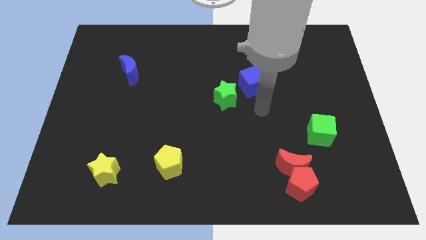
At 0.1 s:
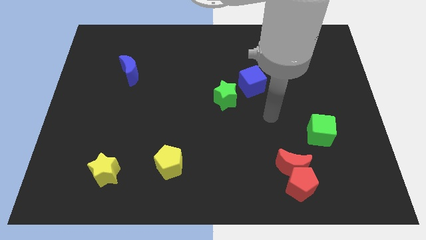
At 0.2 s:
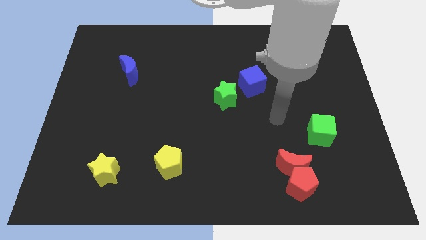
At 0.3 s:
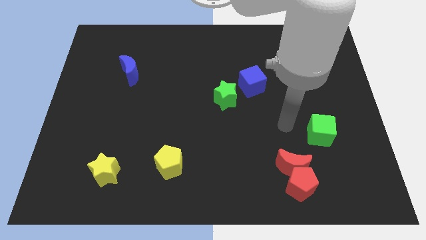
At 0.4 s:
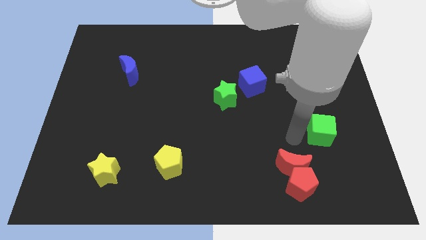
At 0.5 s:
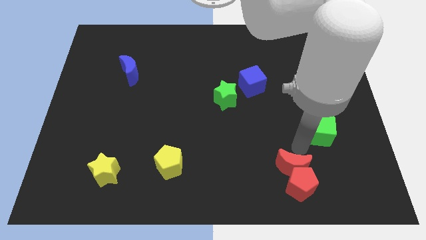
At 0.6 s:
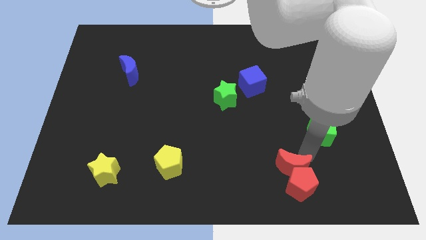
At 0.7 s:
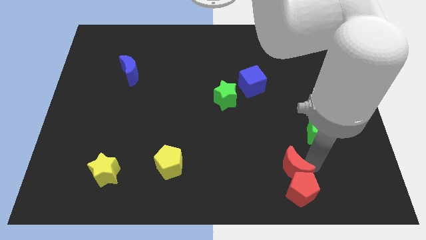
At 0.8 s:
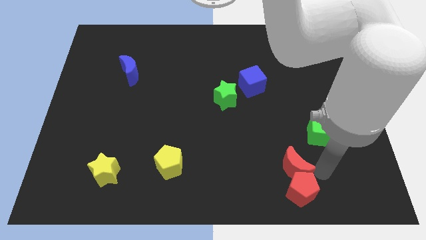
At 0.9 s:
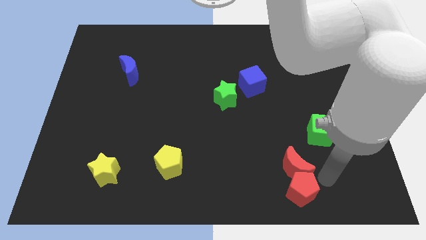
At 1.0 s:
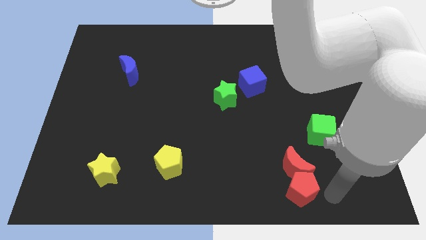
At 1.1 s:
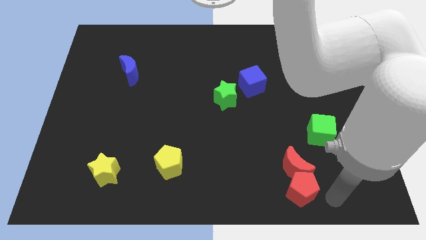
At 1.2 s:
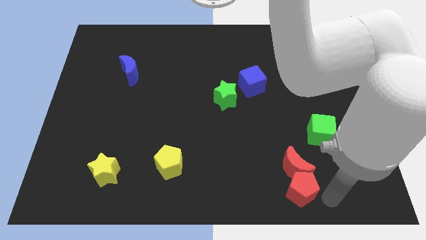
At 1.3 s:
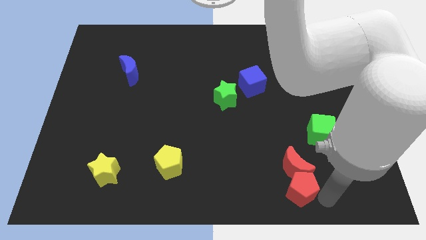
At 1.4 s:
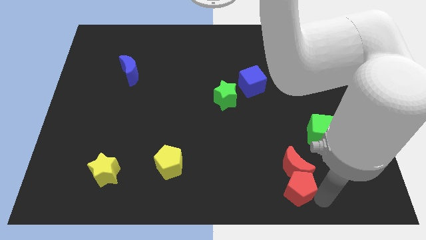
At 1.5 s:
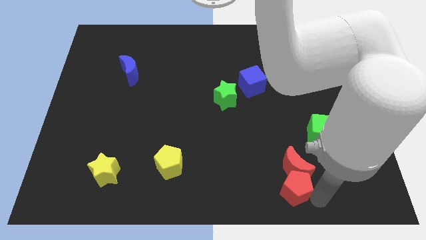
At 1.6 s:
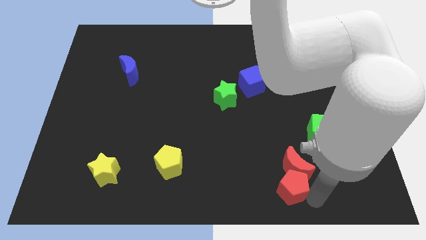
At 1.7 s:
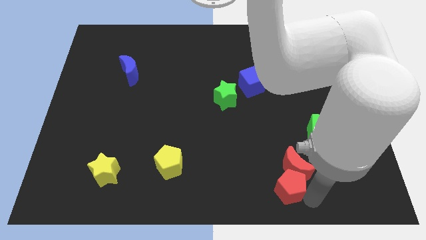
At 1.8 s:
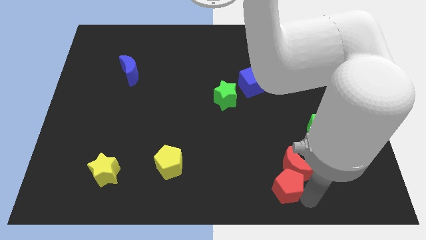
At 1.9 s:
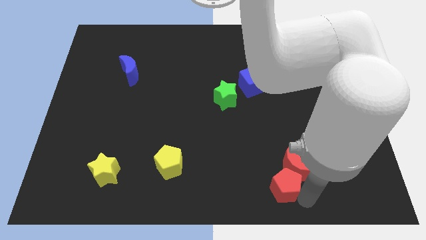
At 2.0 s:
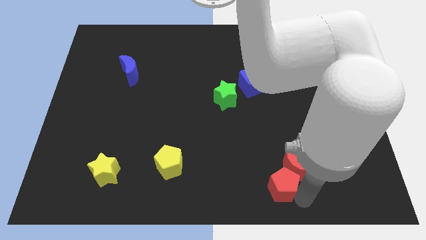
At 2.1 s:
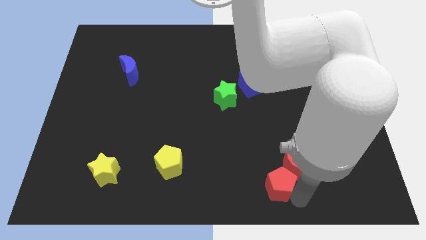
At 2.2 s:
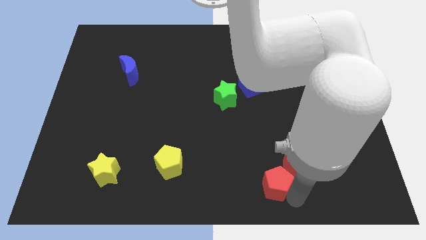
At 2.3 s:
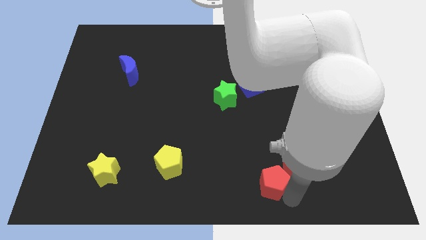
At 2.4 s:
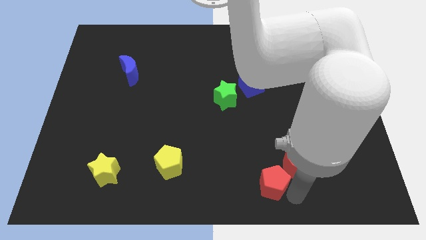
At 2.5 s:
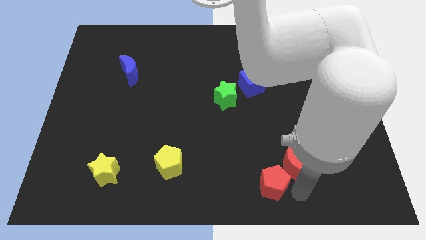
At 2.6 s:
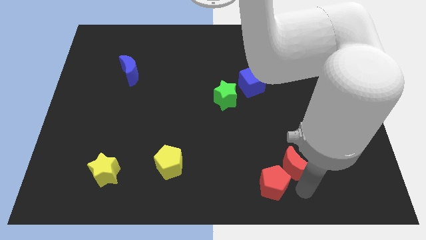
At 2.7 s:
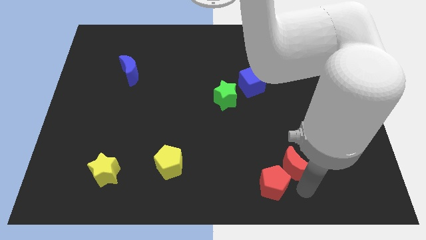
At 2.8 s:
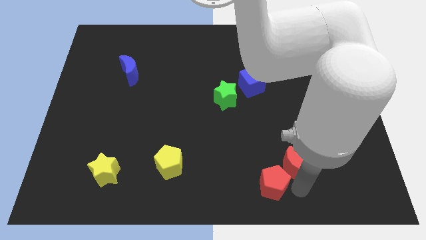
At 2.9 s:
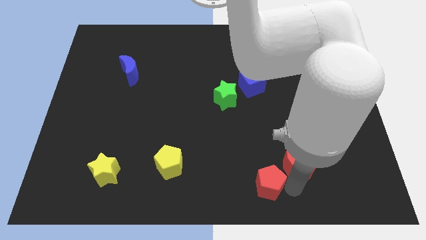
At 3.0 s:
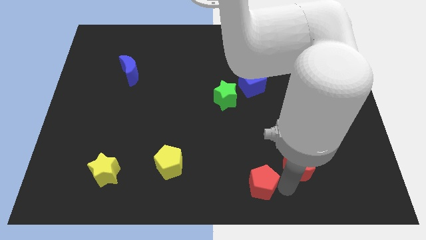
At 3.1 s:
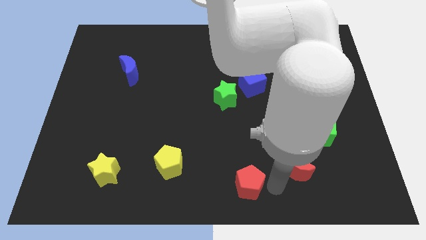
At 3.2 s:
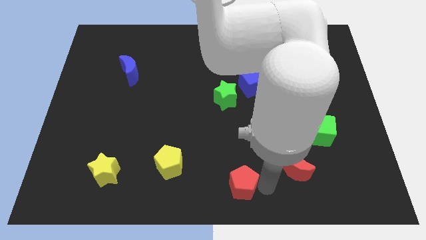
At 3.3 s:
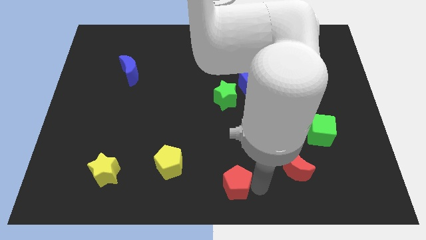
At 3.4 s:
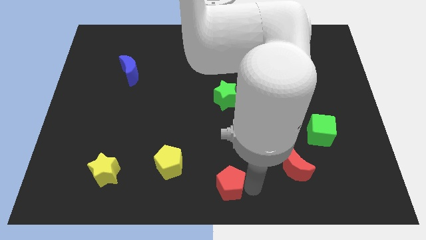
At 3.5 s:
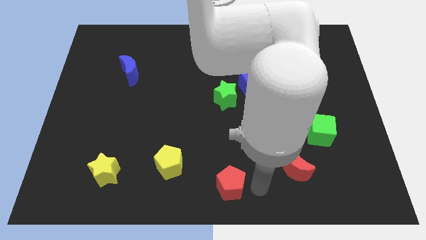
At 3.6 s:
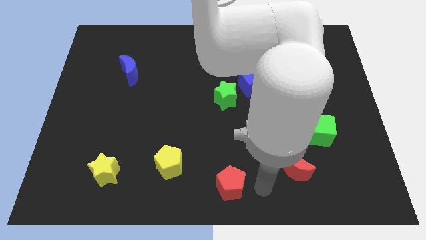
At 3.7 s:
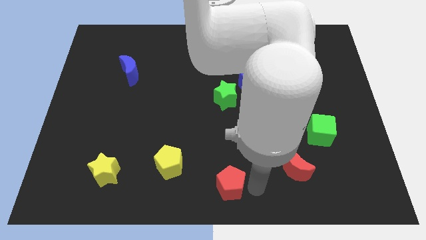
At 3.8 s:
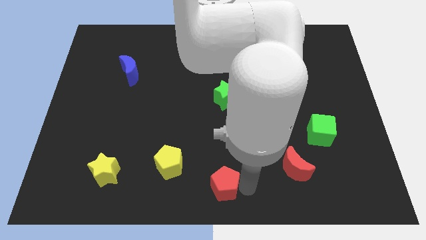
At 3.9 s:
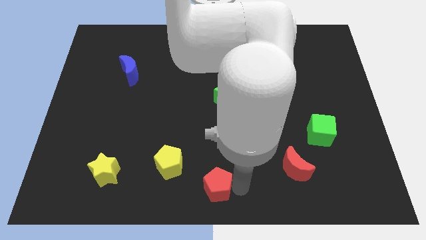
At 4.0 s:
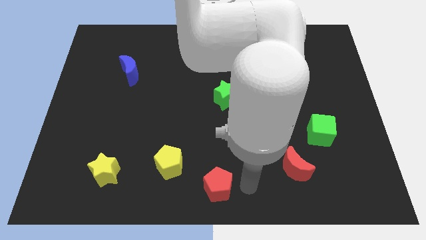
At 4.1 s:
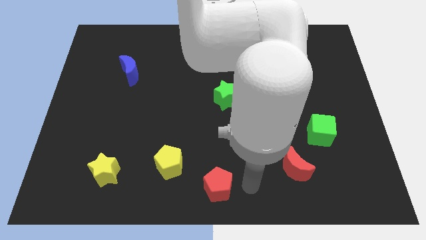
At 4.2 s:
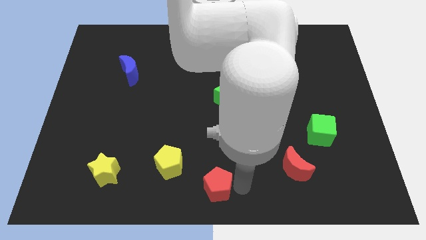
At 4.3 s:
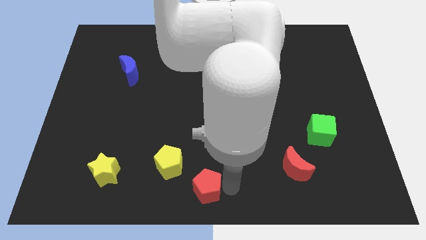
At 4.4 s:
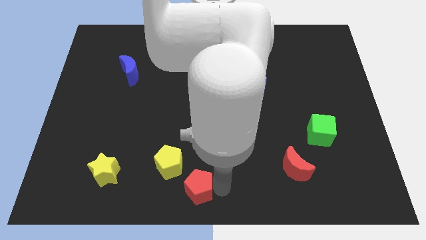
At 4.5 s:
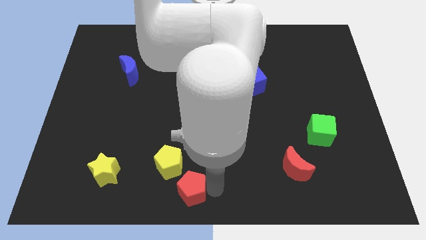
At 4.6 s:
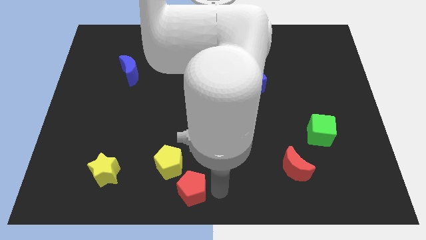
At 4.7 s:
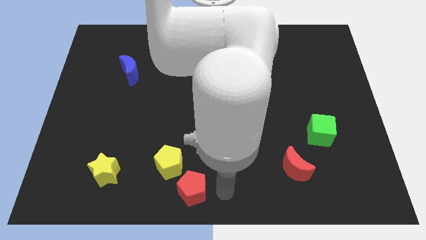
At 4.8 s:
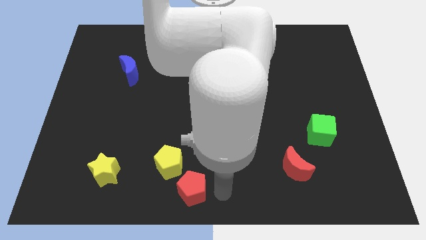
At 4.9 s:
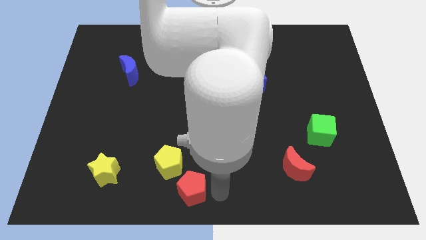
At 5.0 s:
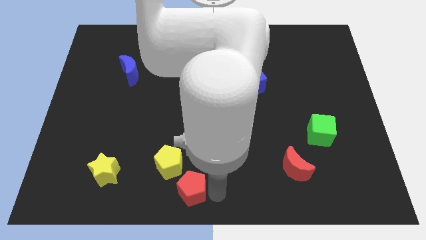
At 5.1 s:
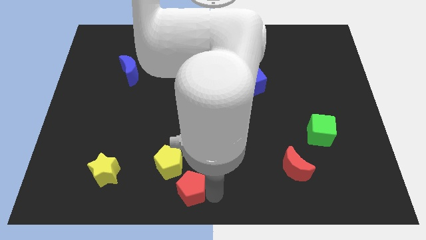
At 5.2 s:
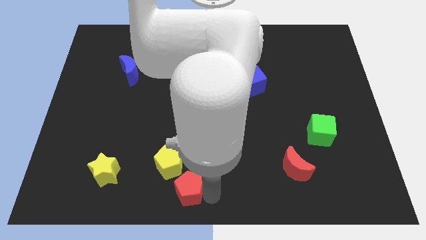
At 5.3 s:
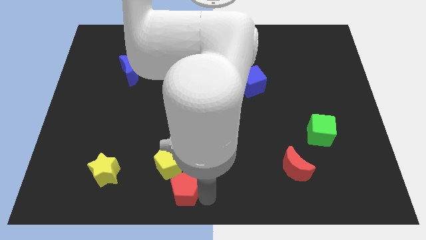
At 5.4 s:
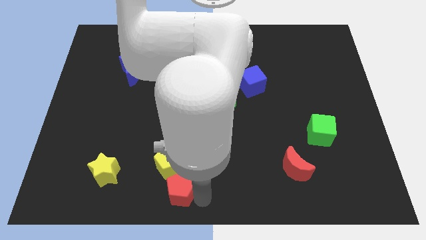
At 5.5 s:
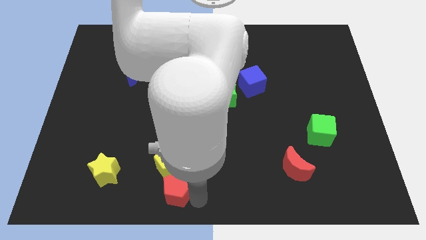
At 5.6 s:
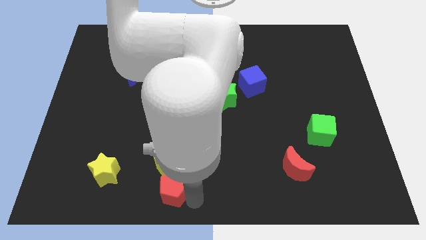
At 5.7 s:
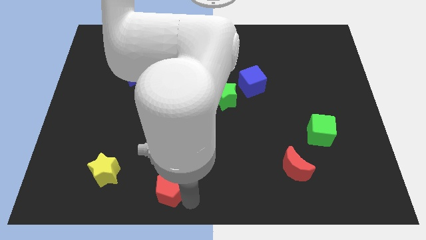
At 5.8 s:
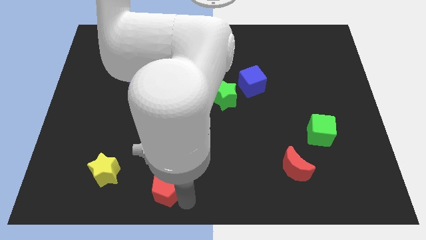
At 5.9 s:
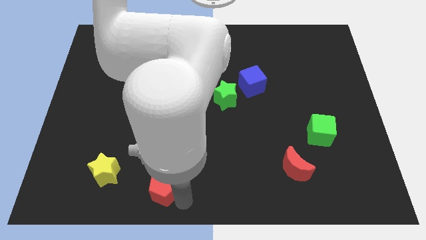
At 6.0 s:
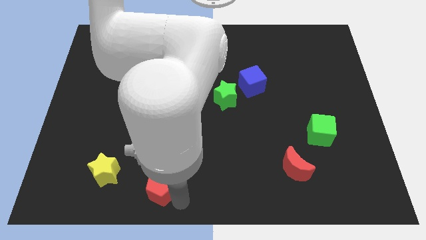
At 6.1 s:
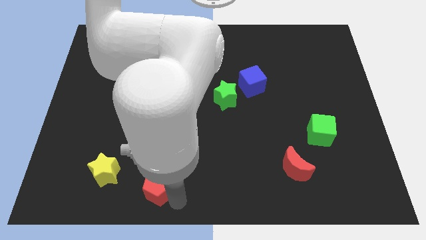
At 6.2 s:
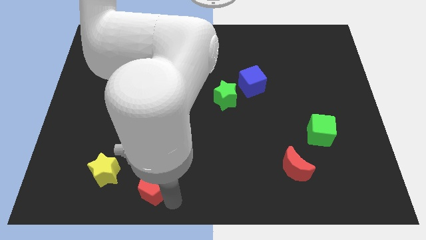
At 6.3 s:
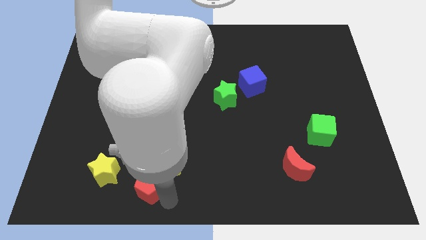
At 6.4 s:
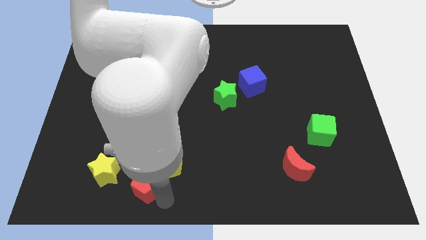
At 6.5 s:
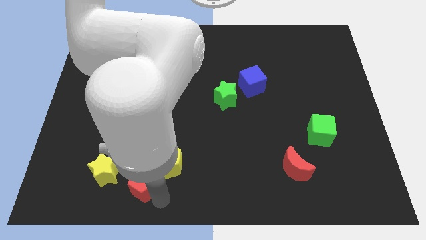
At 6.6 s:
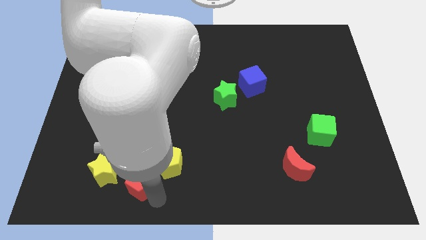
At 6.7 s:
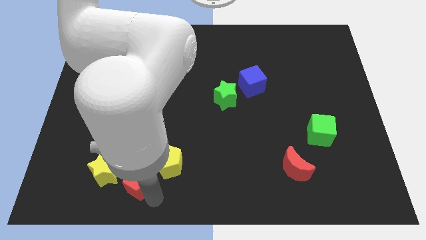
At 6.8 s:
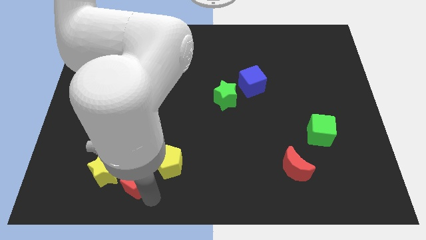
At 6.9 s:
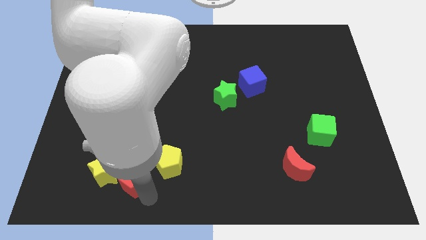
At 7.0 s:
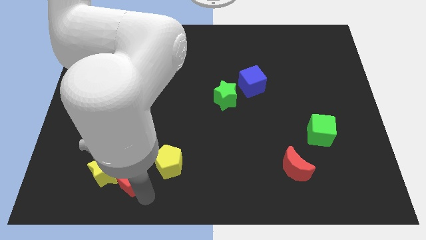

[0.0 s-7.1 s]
move the red pentagon to the yellow star

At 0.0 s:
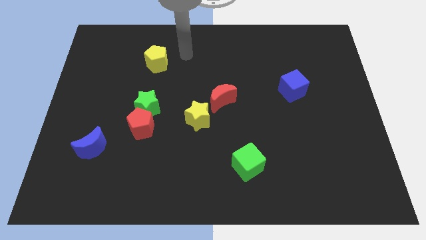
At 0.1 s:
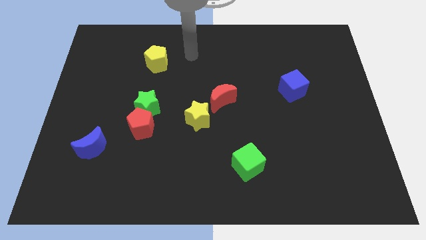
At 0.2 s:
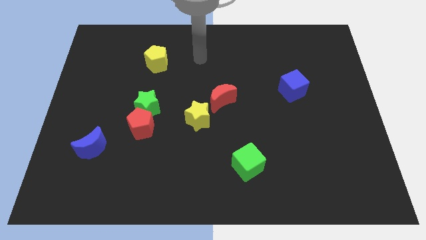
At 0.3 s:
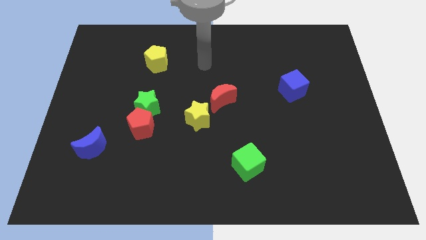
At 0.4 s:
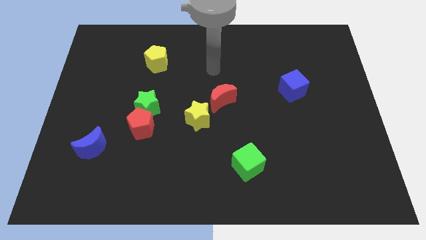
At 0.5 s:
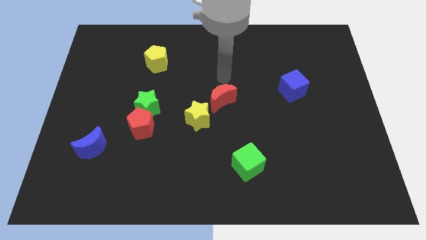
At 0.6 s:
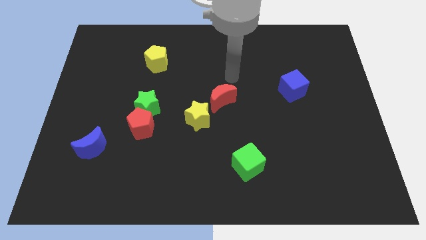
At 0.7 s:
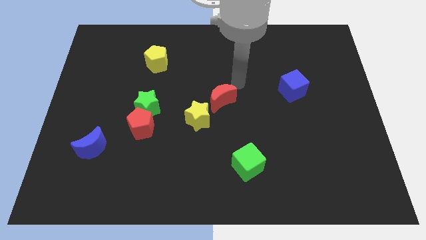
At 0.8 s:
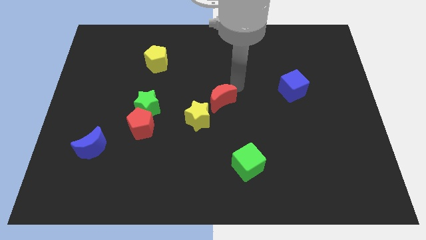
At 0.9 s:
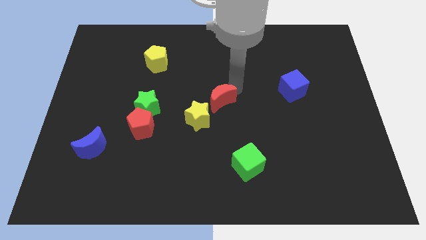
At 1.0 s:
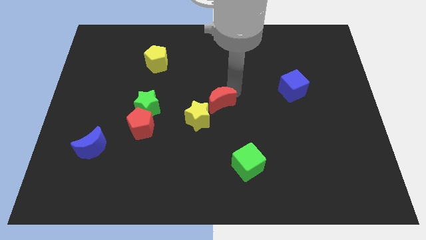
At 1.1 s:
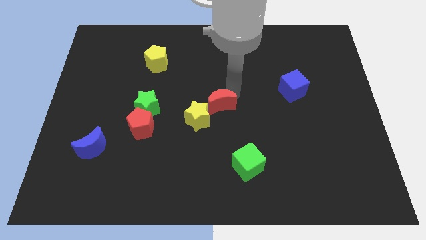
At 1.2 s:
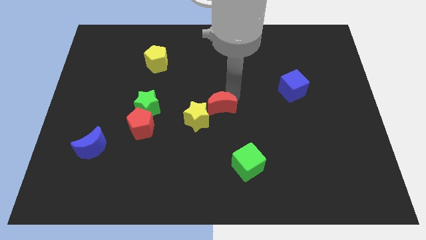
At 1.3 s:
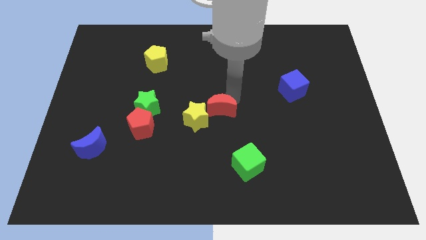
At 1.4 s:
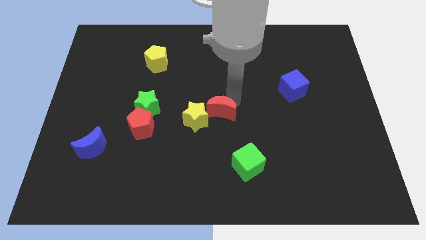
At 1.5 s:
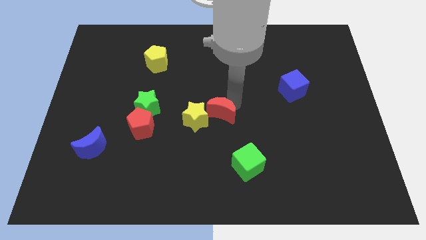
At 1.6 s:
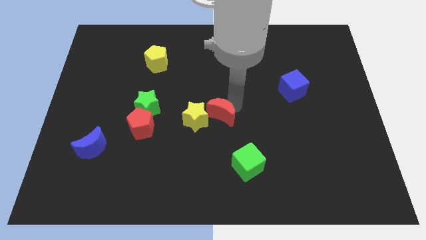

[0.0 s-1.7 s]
move the red moon next to the yellow star
